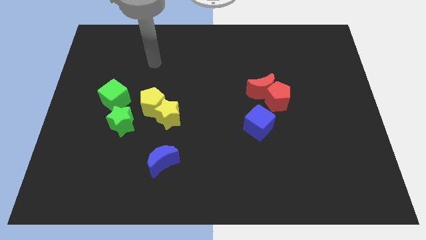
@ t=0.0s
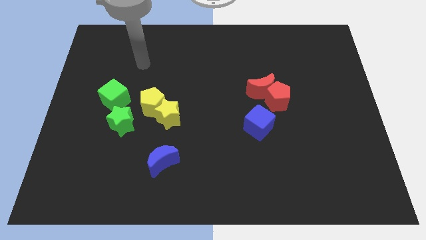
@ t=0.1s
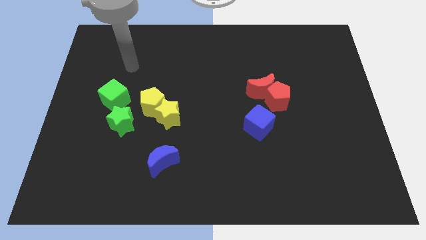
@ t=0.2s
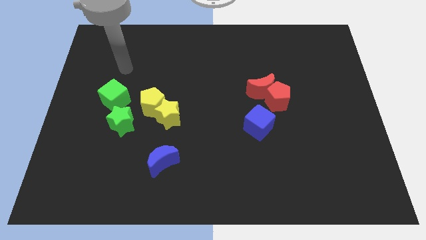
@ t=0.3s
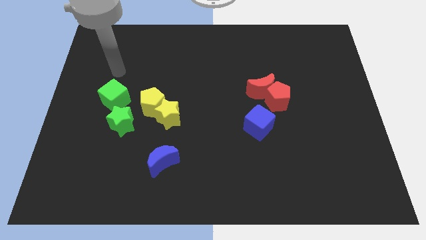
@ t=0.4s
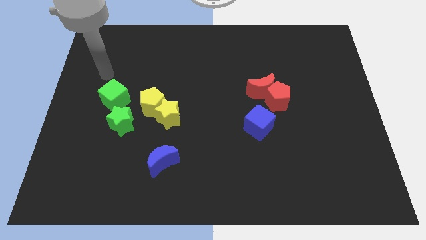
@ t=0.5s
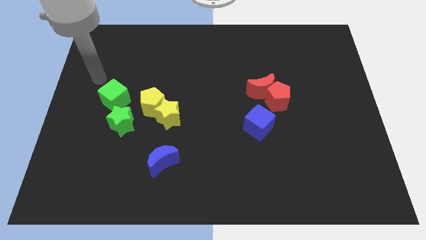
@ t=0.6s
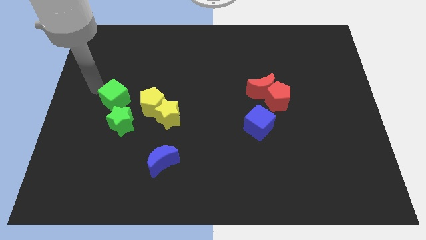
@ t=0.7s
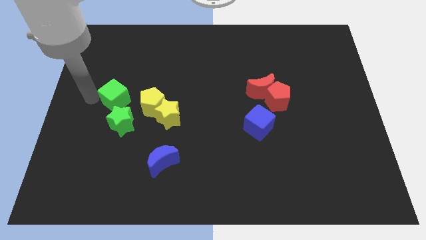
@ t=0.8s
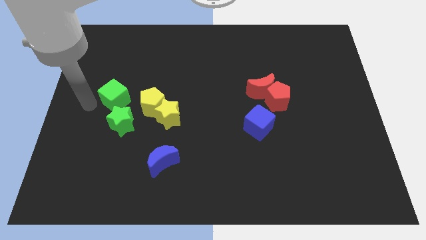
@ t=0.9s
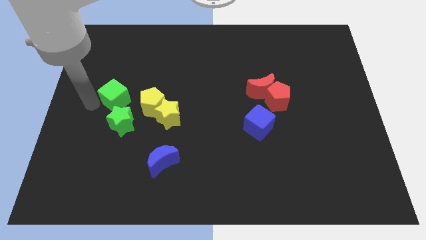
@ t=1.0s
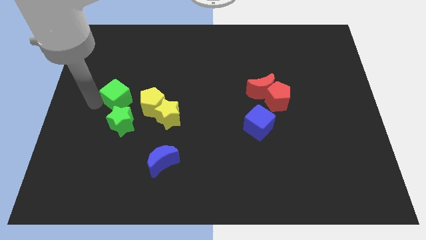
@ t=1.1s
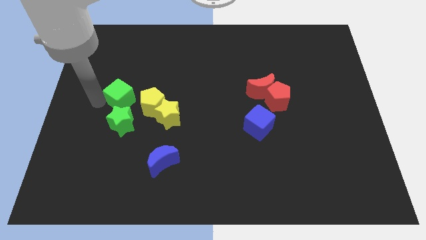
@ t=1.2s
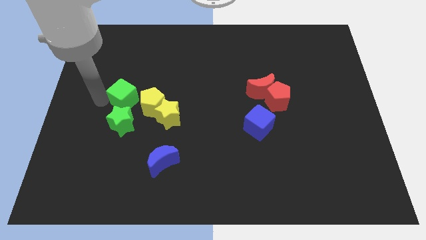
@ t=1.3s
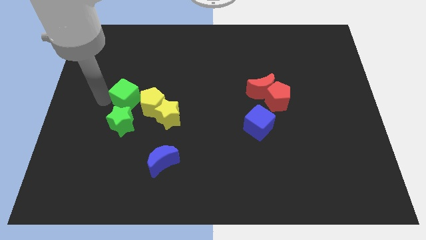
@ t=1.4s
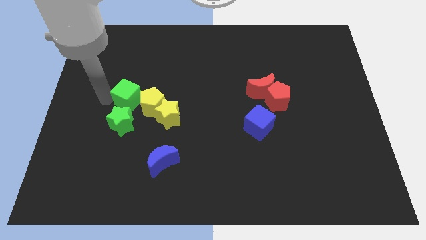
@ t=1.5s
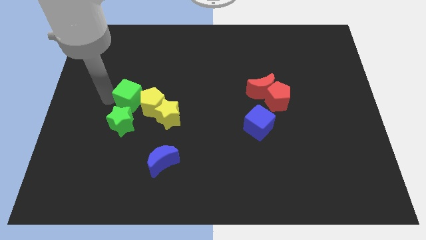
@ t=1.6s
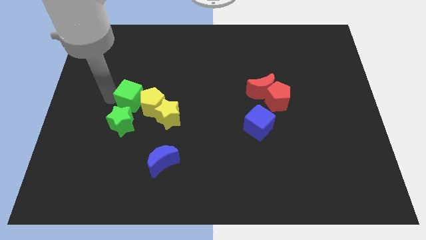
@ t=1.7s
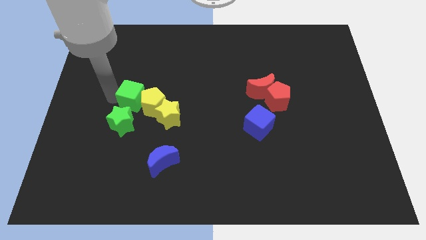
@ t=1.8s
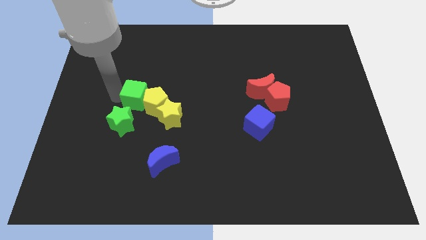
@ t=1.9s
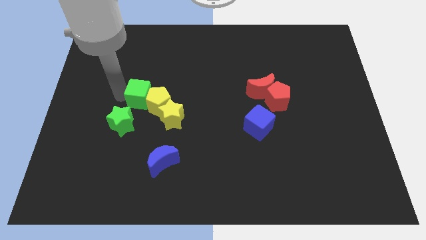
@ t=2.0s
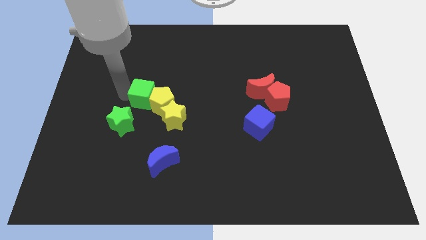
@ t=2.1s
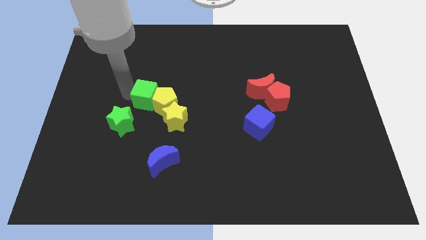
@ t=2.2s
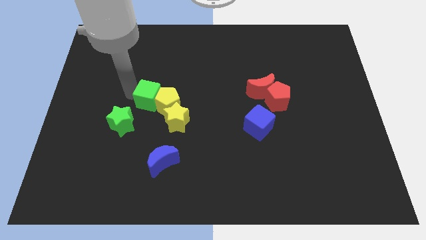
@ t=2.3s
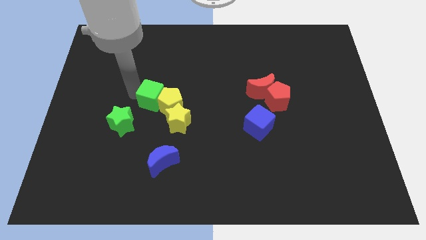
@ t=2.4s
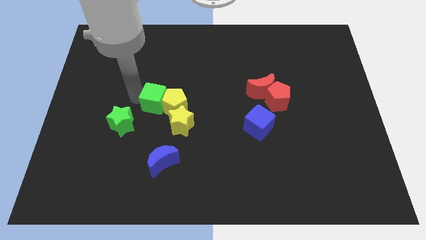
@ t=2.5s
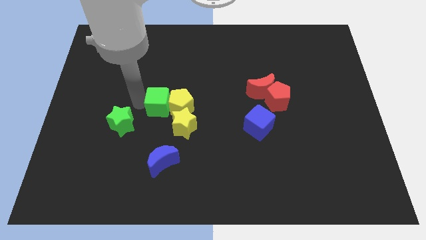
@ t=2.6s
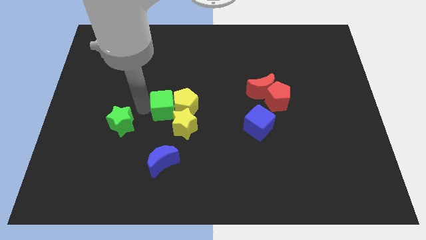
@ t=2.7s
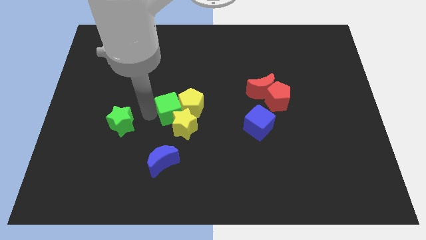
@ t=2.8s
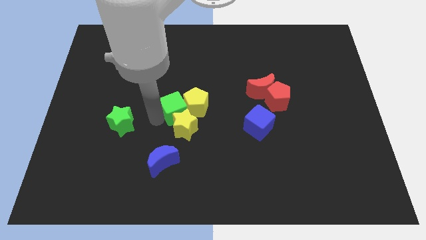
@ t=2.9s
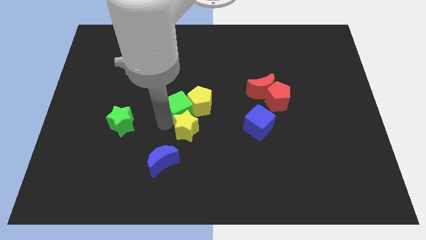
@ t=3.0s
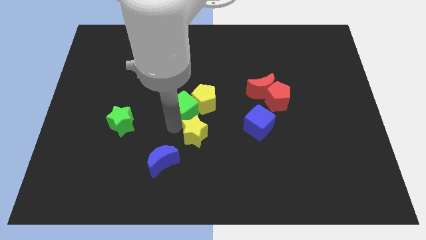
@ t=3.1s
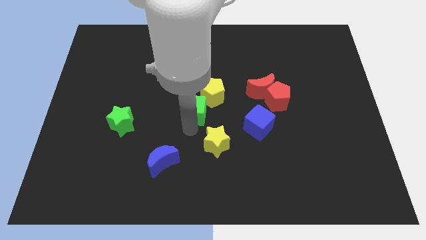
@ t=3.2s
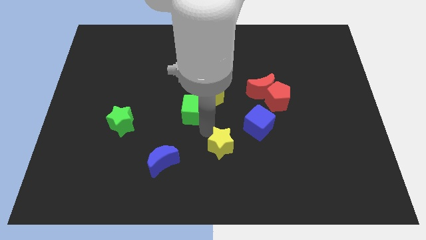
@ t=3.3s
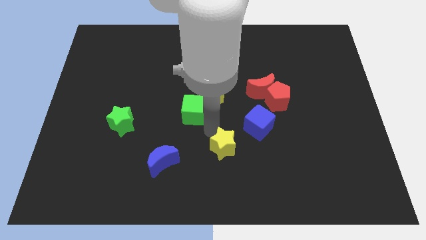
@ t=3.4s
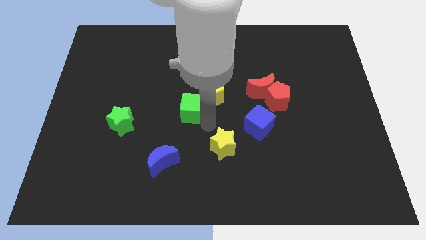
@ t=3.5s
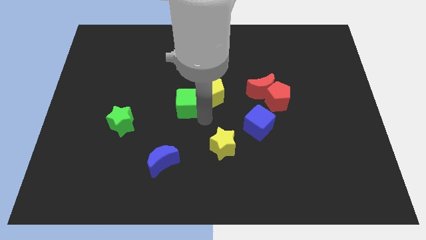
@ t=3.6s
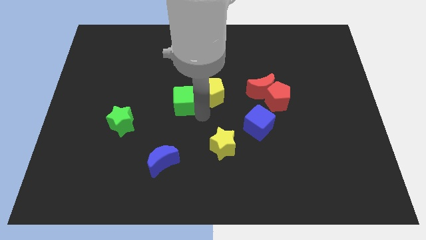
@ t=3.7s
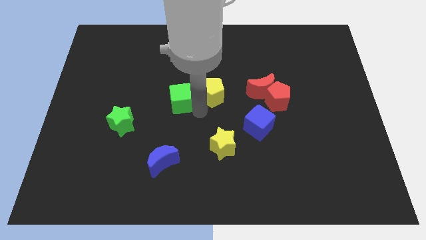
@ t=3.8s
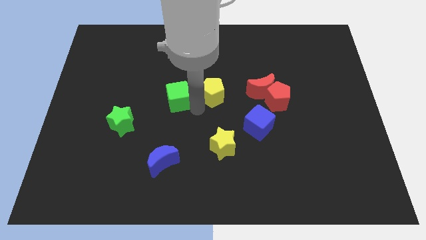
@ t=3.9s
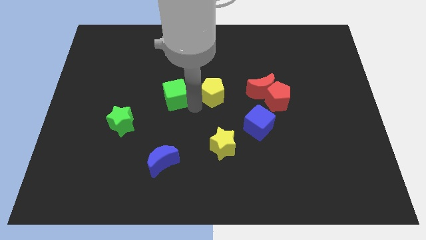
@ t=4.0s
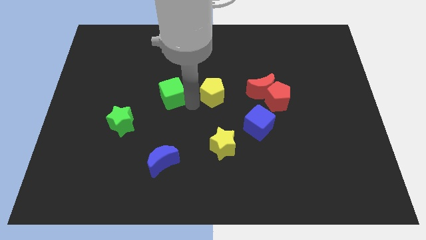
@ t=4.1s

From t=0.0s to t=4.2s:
slightly move the green cube diagonally upwards and right

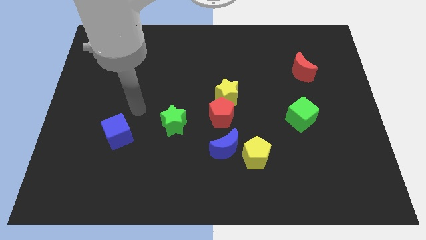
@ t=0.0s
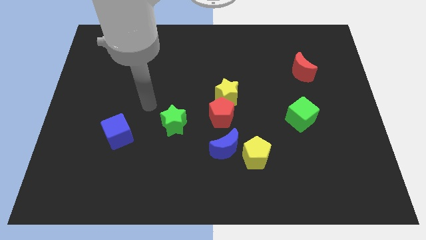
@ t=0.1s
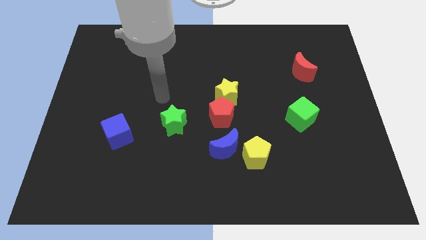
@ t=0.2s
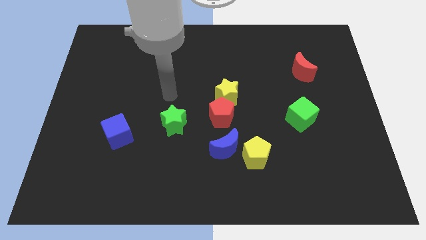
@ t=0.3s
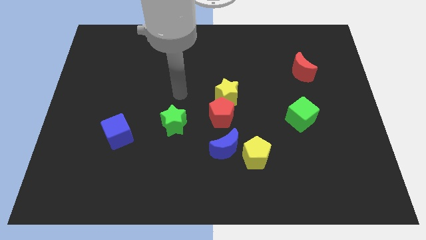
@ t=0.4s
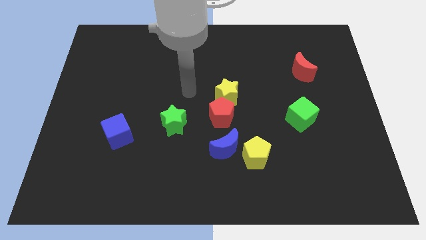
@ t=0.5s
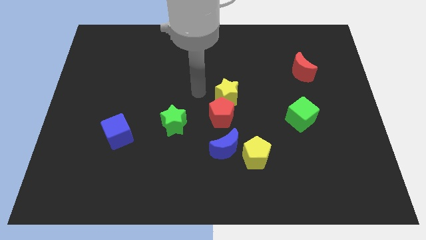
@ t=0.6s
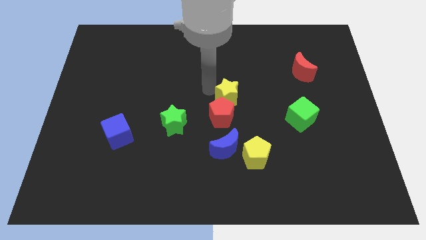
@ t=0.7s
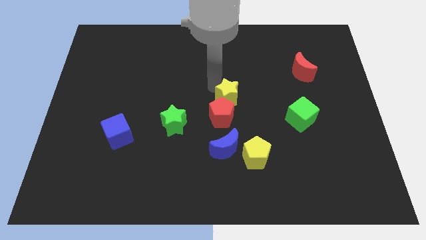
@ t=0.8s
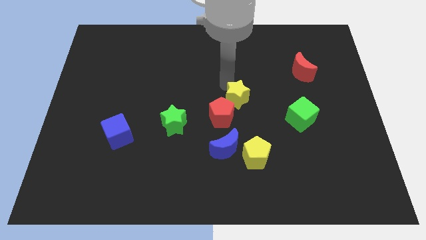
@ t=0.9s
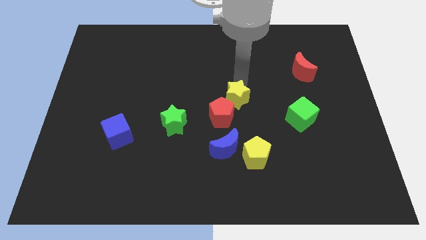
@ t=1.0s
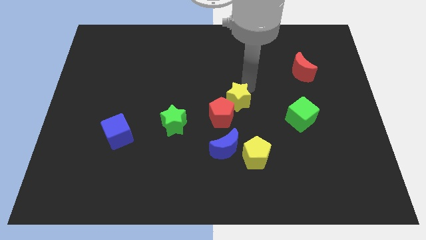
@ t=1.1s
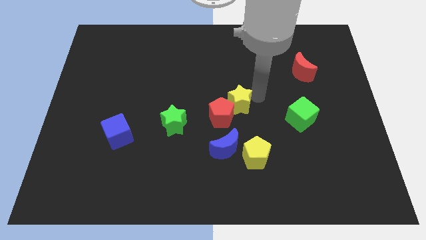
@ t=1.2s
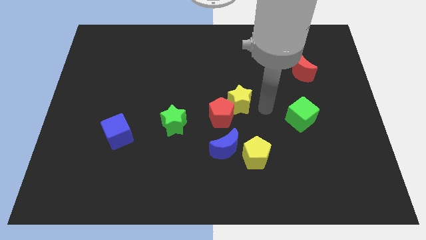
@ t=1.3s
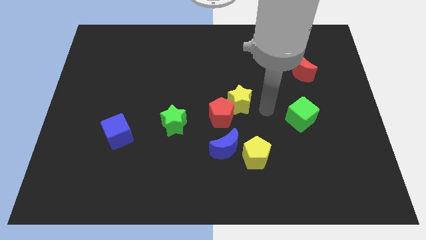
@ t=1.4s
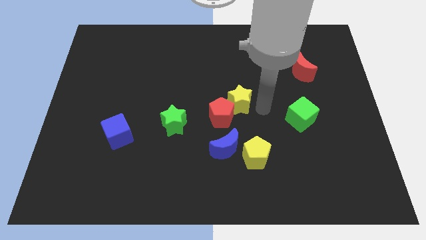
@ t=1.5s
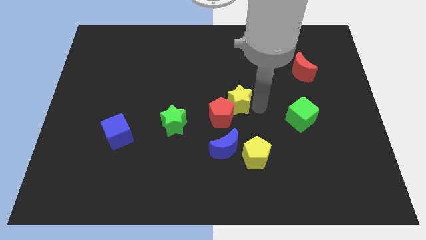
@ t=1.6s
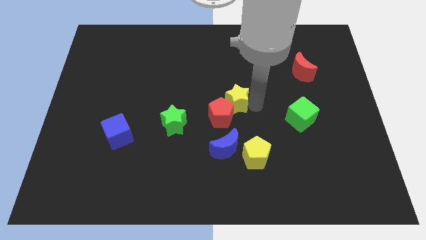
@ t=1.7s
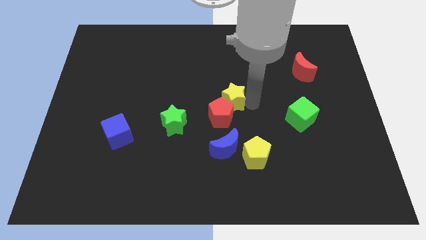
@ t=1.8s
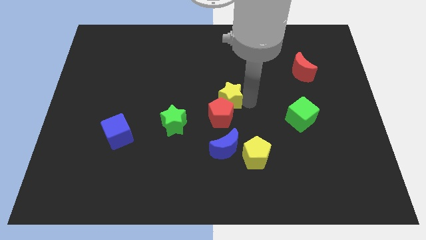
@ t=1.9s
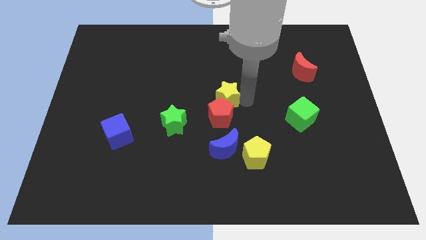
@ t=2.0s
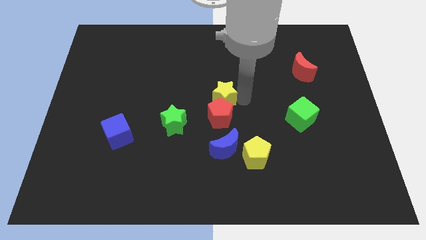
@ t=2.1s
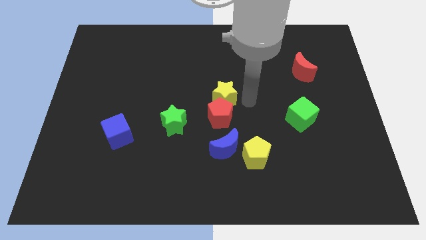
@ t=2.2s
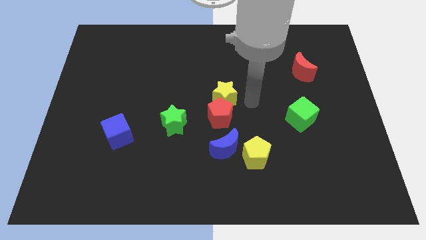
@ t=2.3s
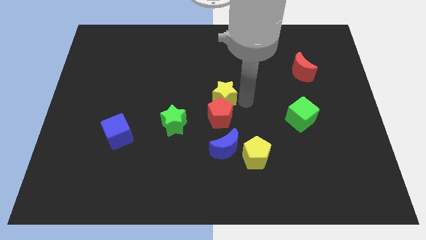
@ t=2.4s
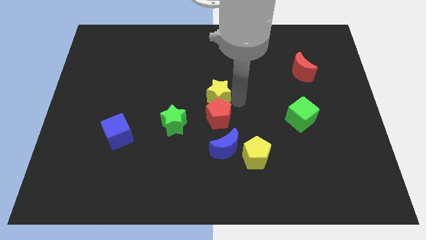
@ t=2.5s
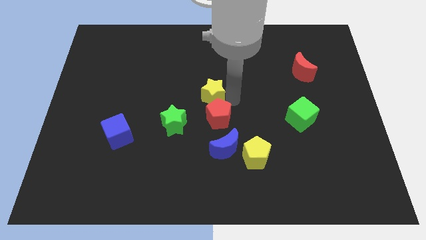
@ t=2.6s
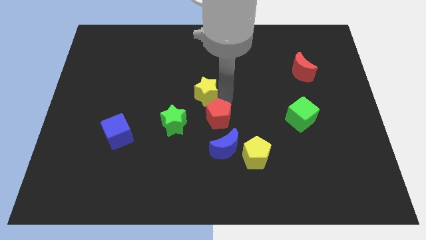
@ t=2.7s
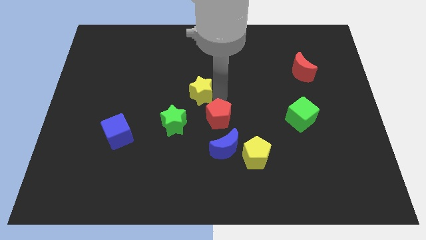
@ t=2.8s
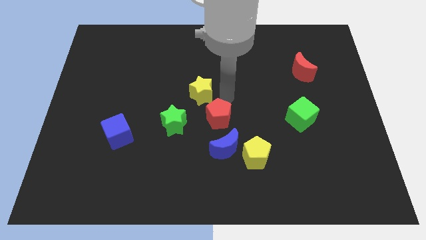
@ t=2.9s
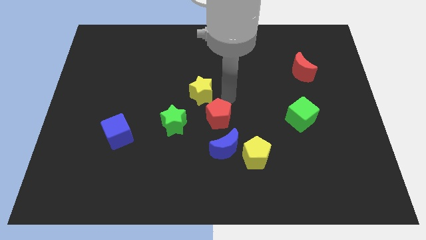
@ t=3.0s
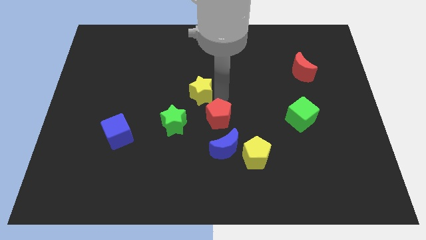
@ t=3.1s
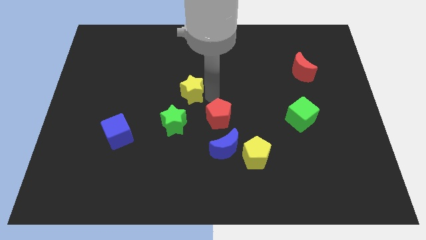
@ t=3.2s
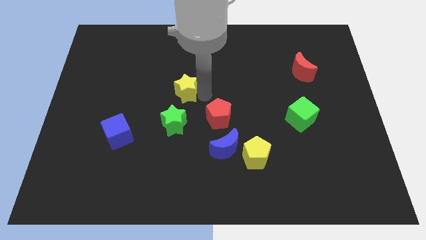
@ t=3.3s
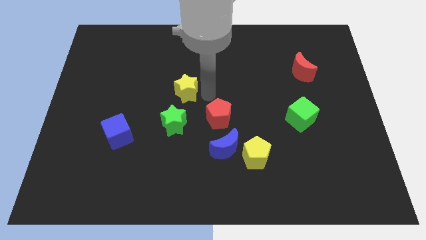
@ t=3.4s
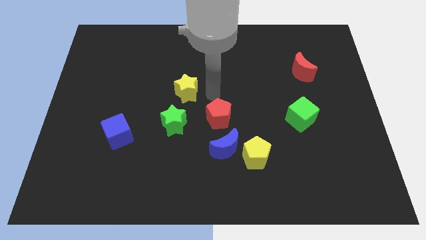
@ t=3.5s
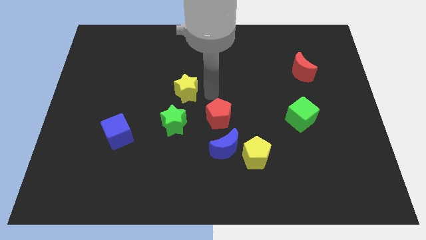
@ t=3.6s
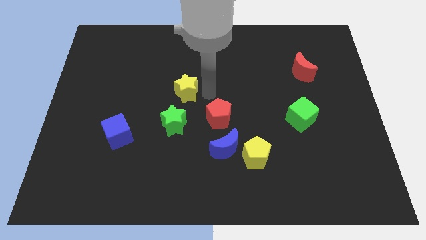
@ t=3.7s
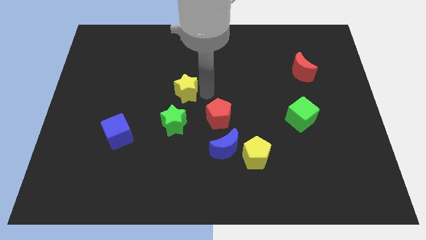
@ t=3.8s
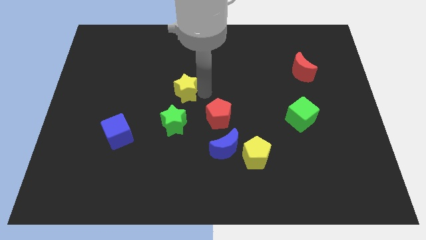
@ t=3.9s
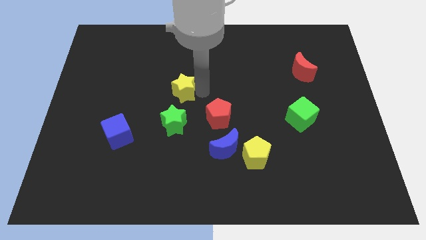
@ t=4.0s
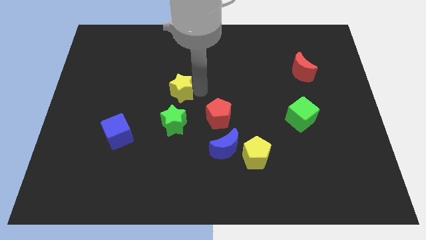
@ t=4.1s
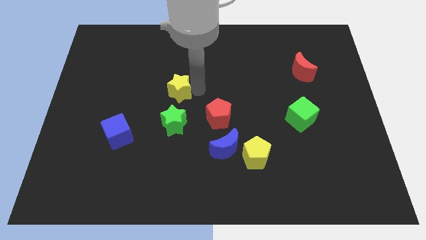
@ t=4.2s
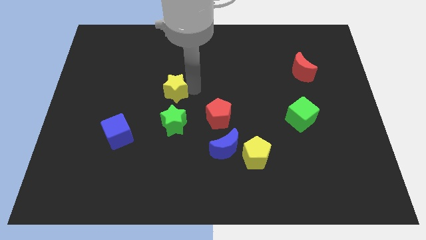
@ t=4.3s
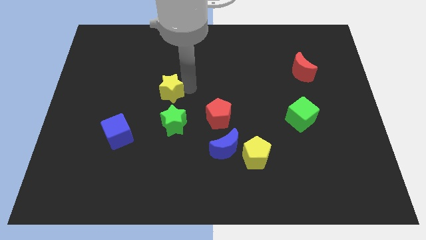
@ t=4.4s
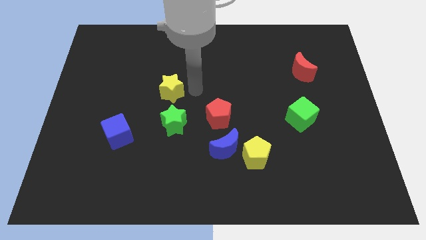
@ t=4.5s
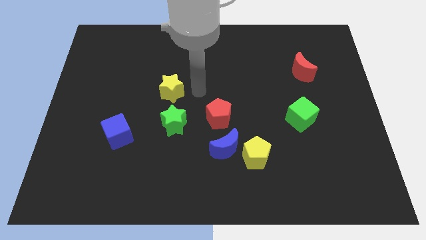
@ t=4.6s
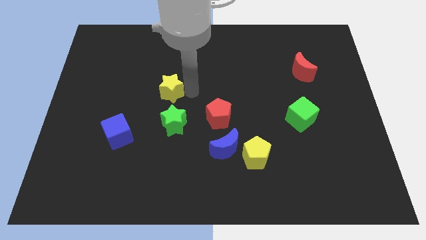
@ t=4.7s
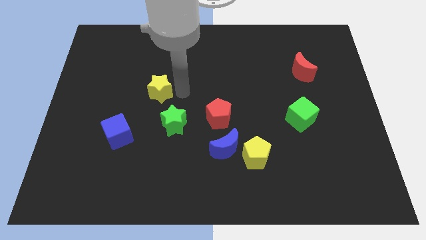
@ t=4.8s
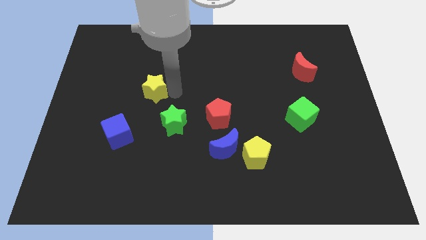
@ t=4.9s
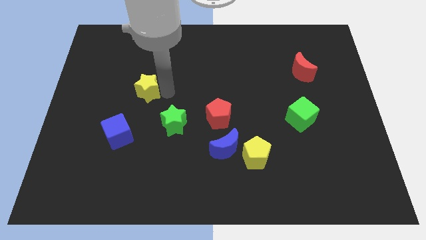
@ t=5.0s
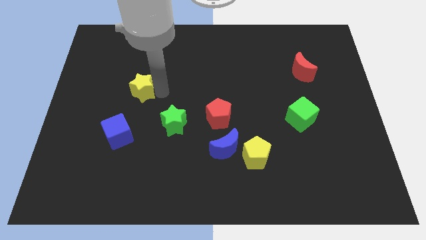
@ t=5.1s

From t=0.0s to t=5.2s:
move the yellow star to the left
